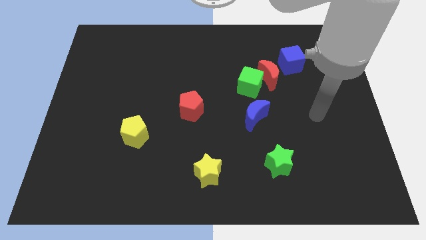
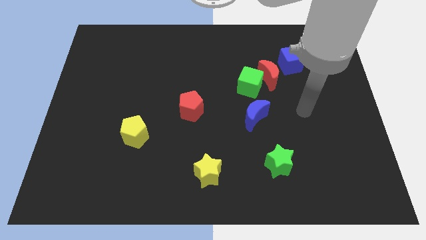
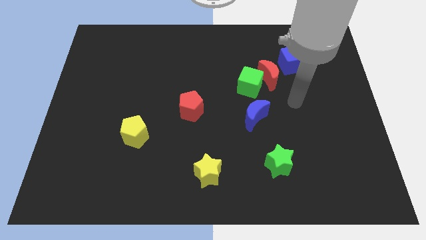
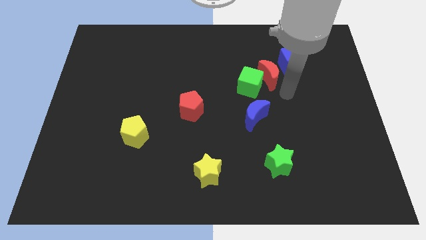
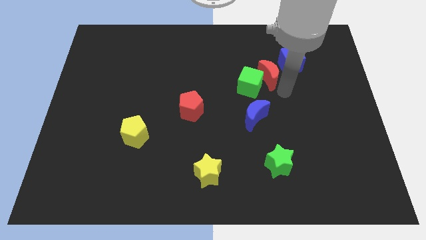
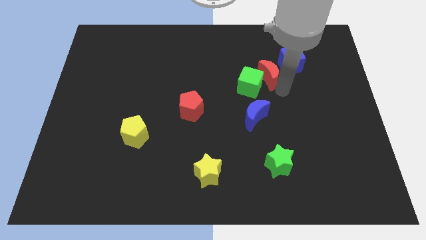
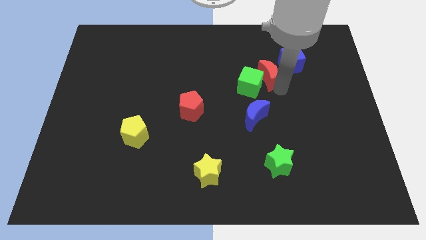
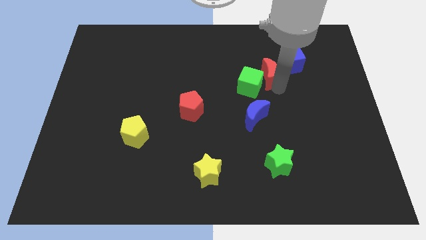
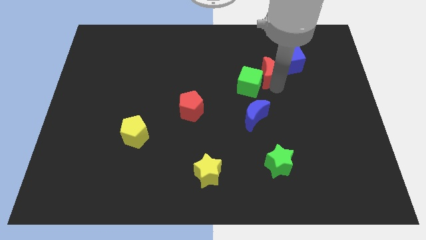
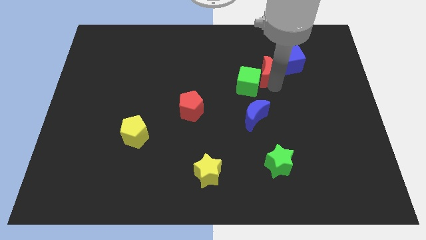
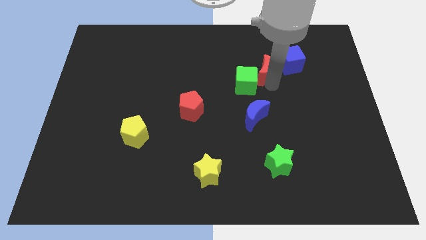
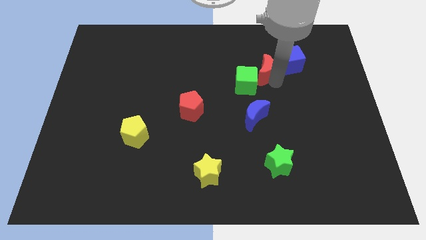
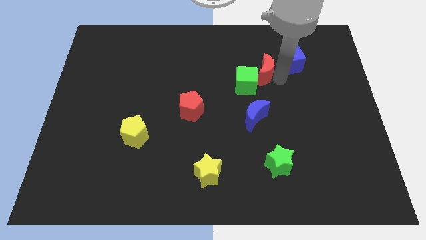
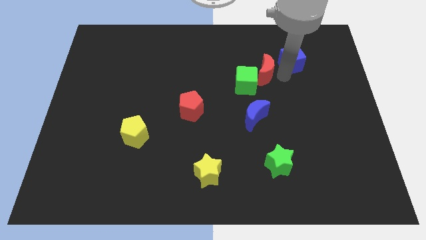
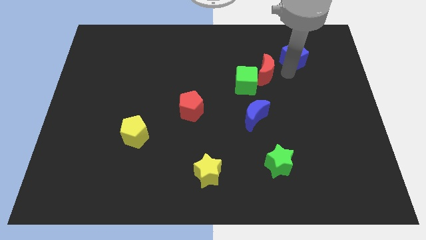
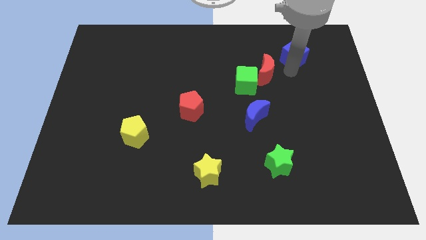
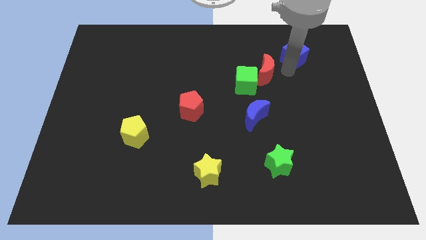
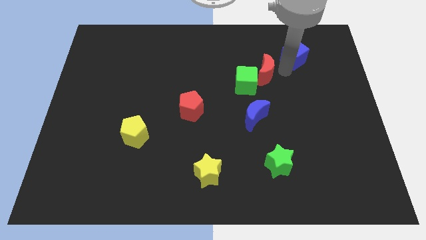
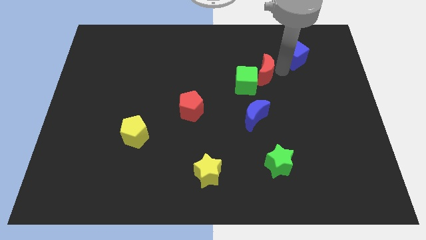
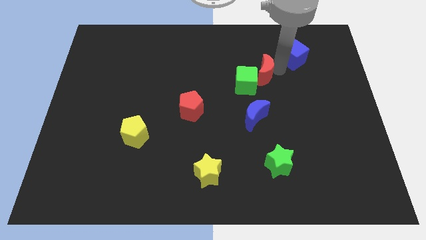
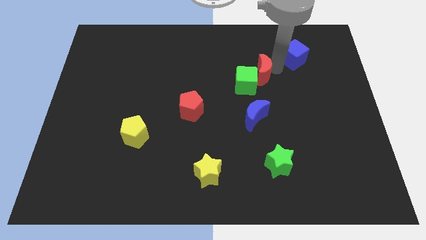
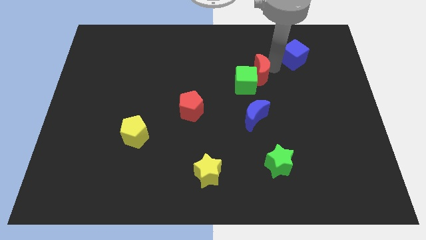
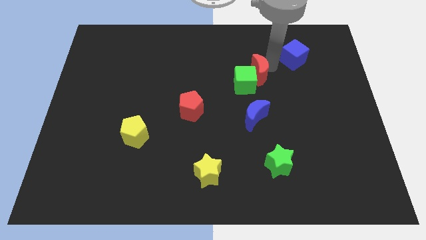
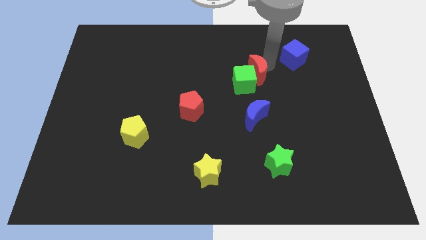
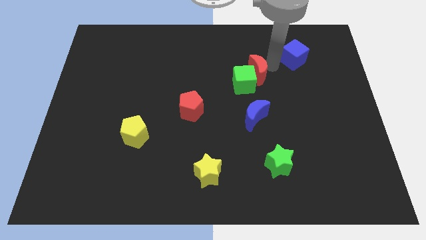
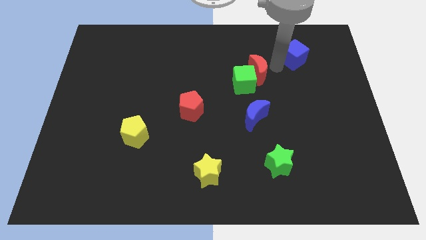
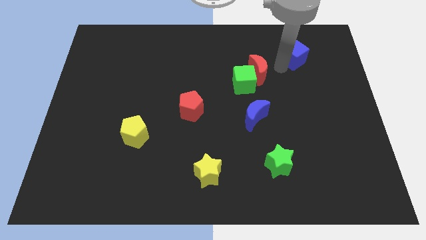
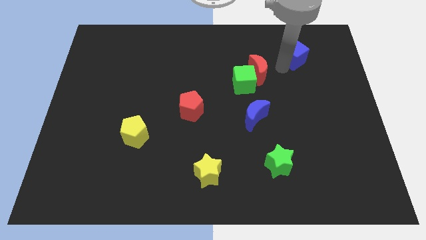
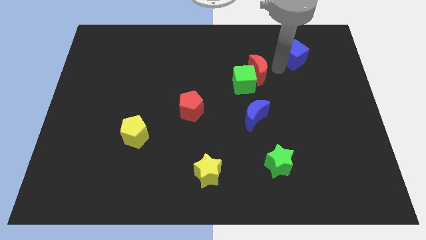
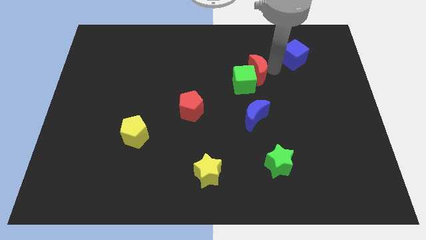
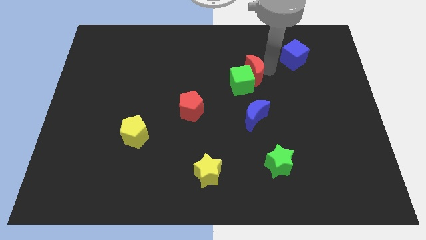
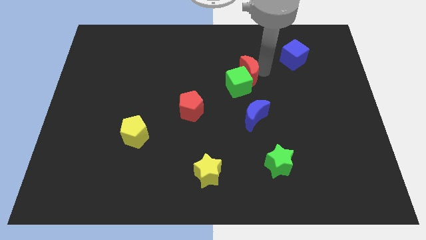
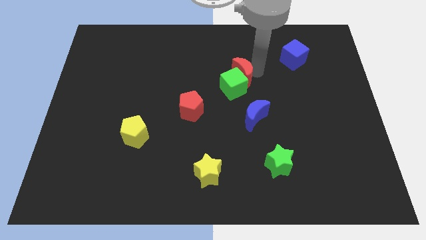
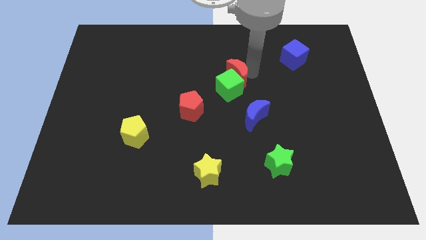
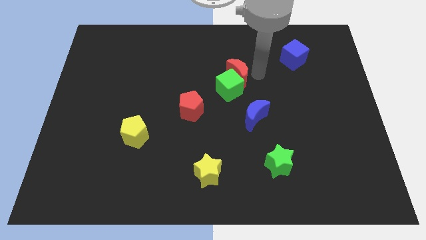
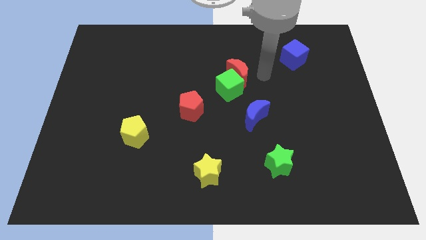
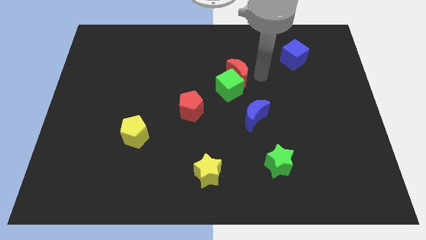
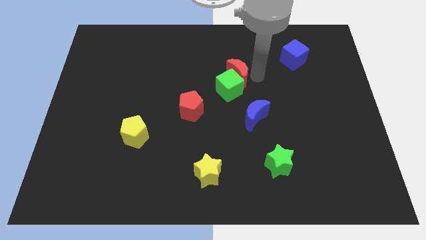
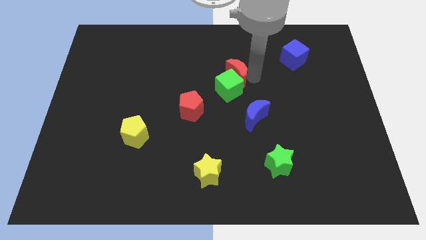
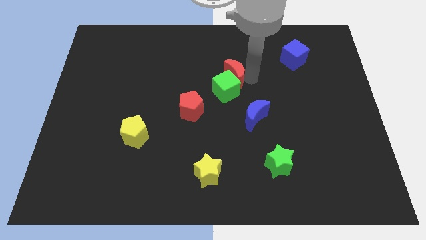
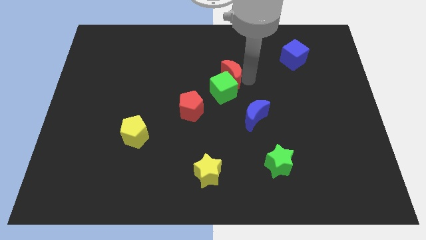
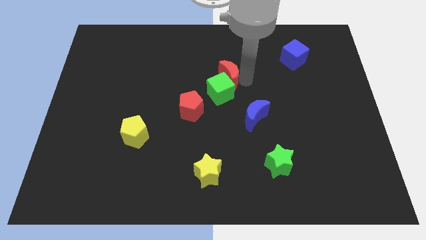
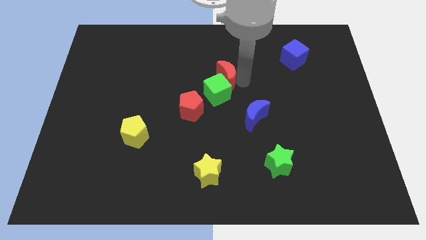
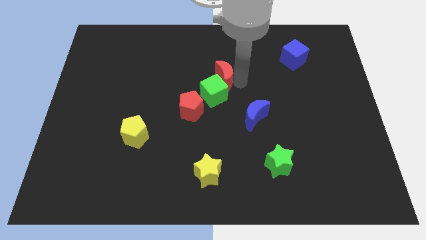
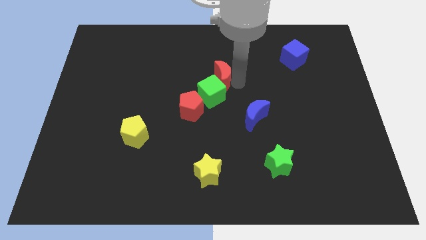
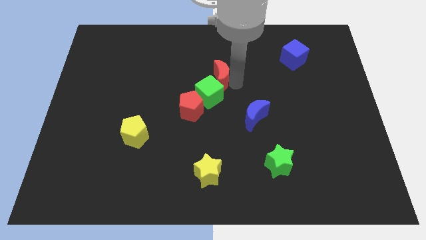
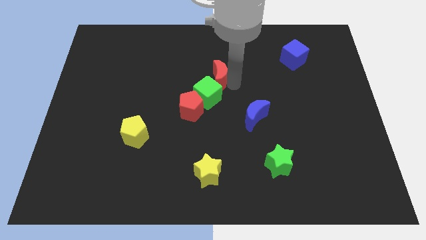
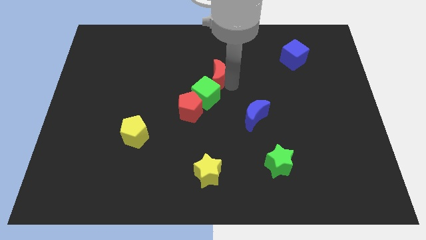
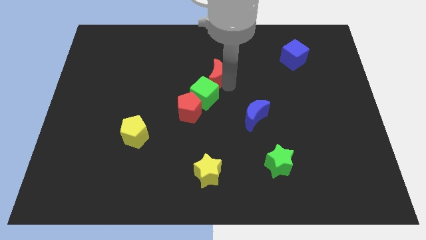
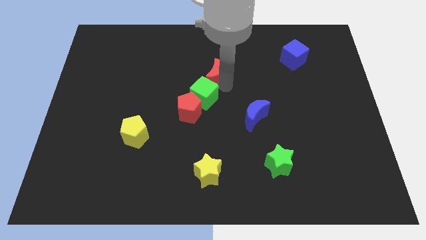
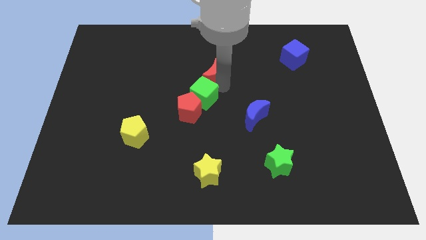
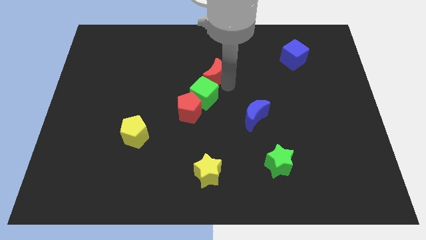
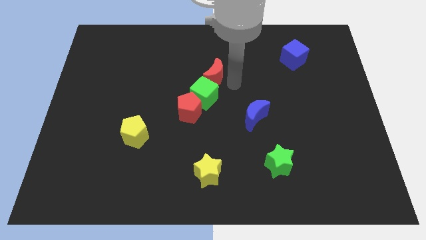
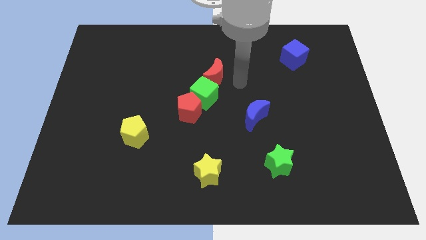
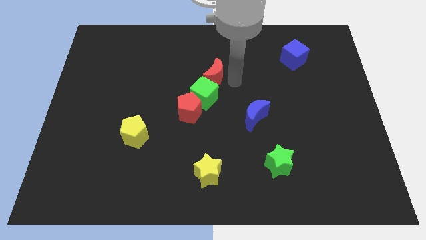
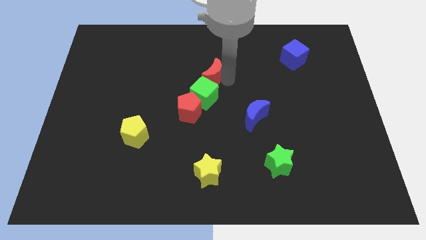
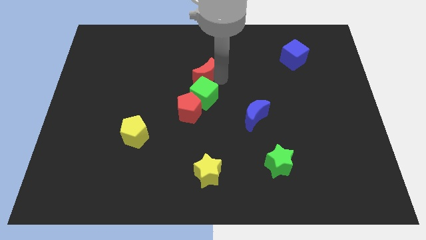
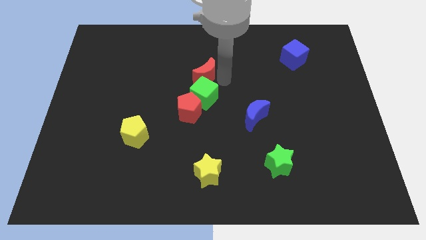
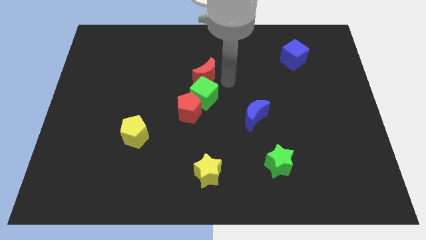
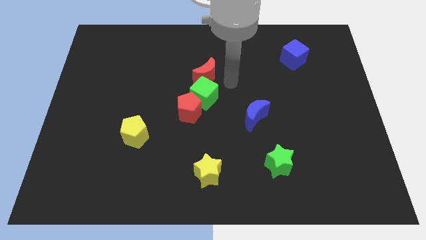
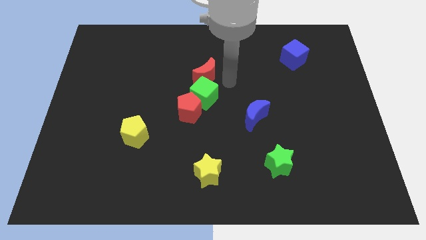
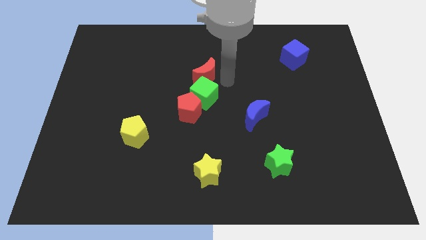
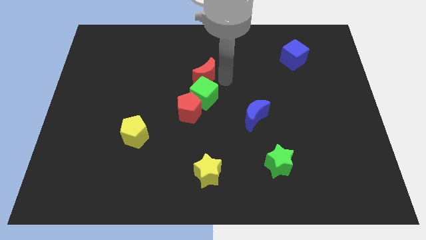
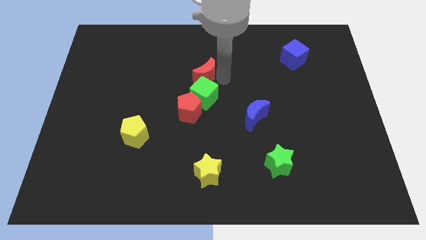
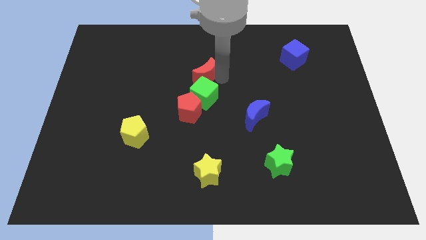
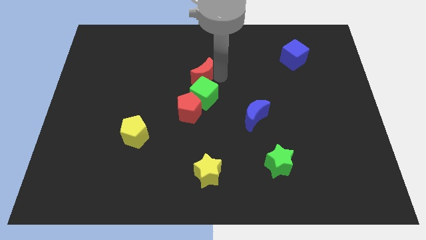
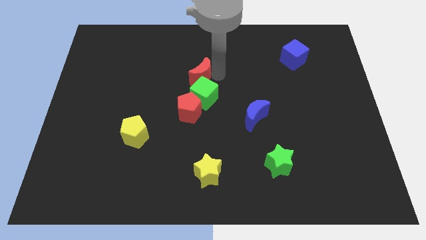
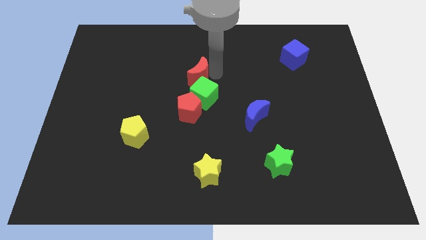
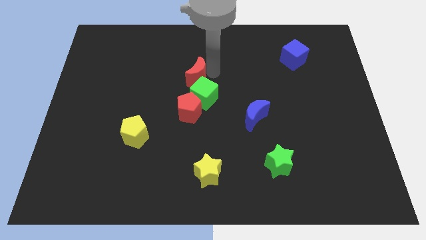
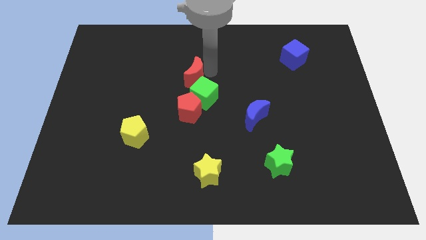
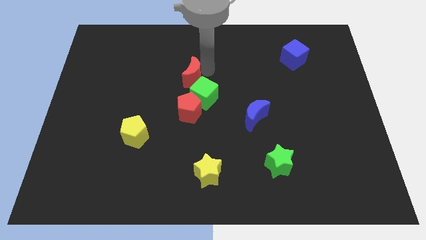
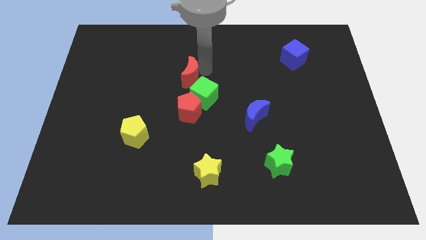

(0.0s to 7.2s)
push the red moon to the left

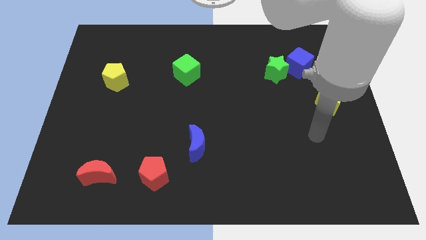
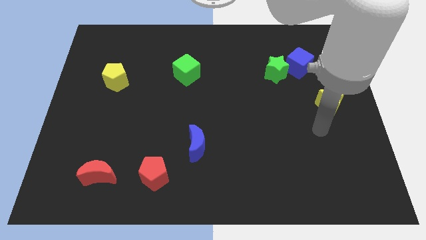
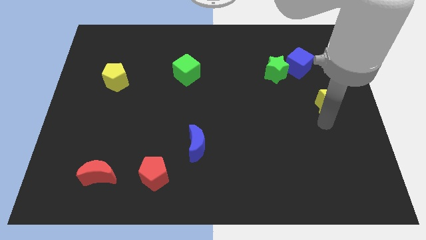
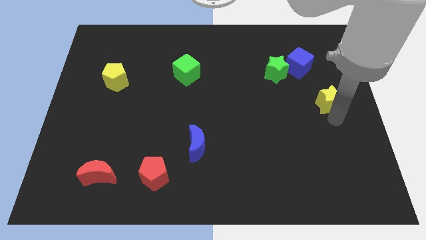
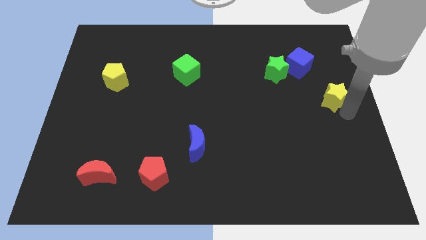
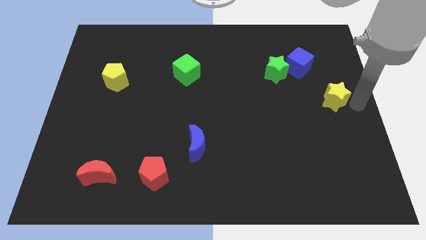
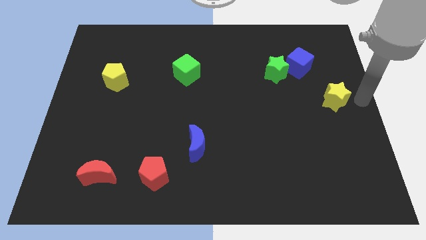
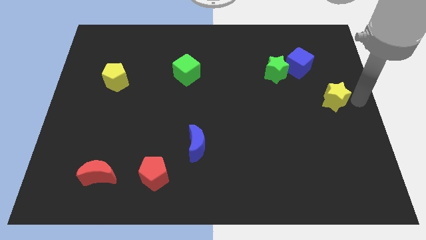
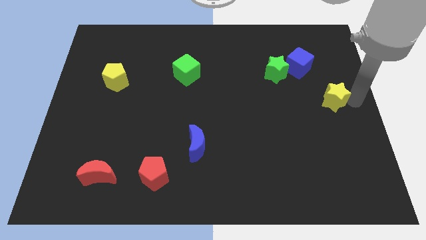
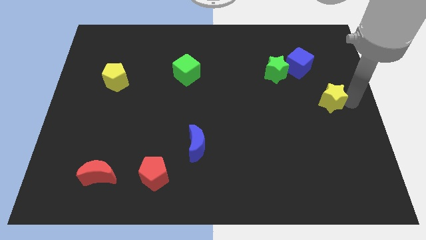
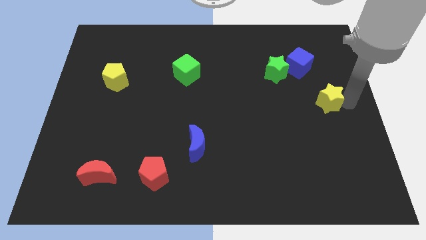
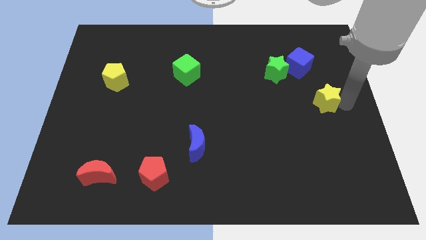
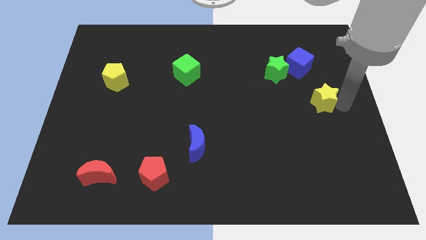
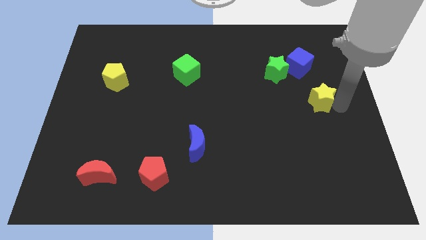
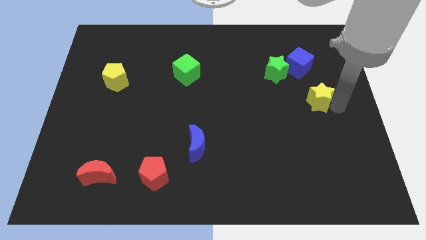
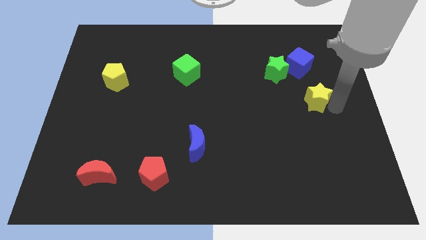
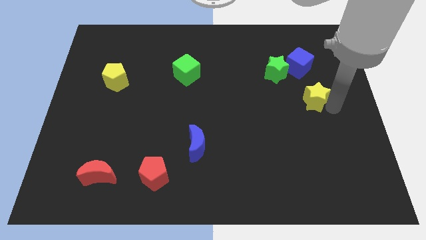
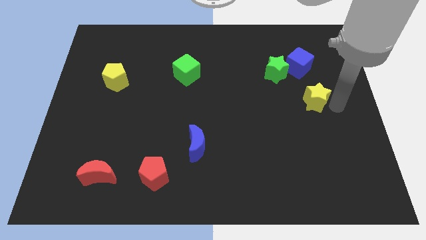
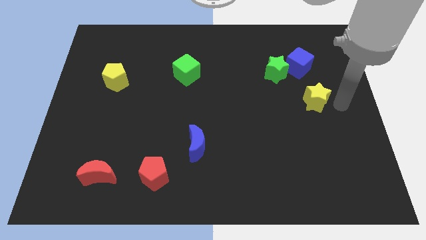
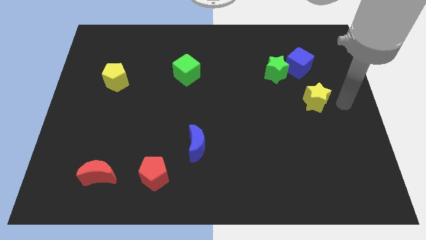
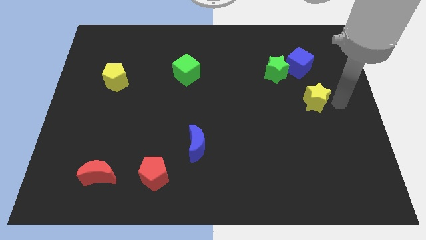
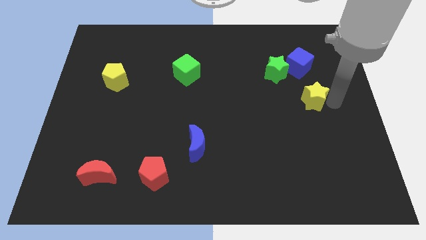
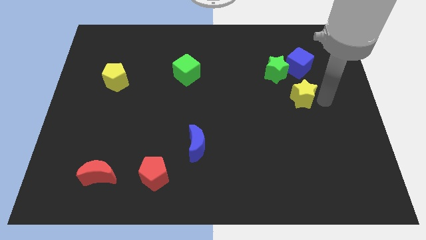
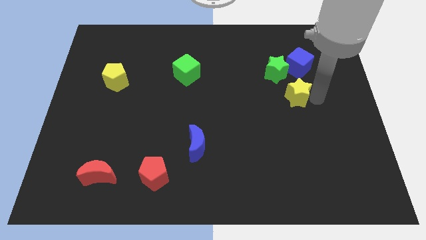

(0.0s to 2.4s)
push the yellow star a bit left
